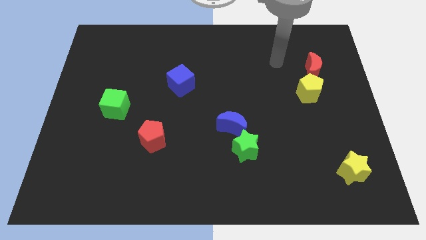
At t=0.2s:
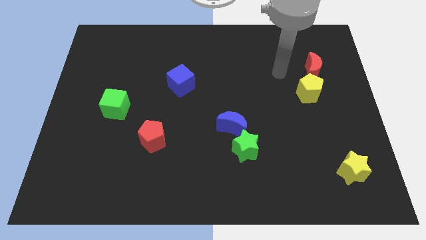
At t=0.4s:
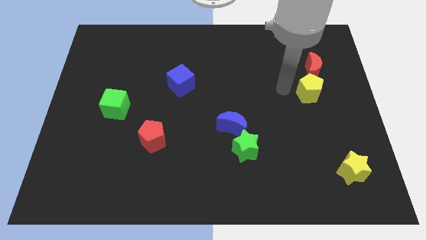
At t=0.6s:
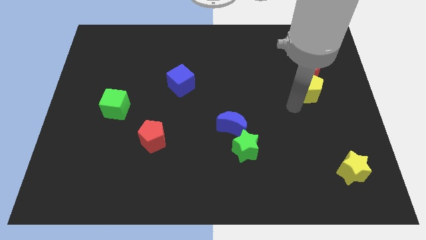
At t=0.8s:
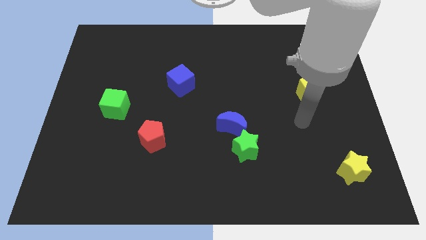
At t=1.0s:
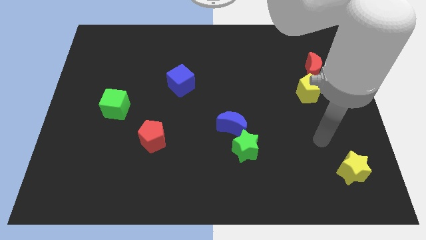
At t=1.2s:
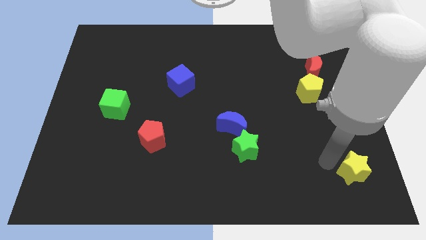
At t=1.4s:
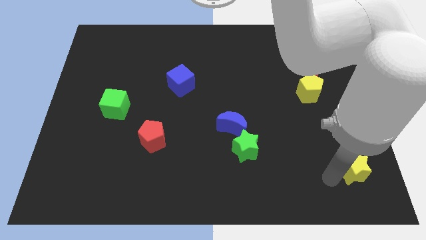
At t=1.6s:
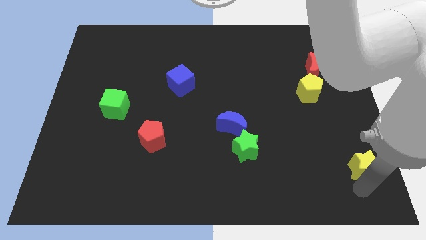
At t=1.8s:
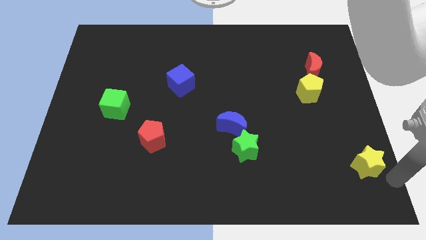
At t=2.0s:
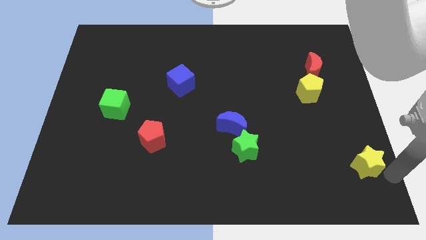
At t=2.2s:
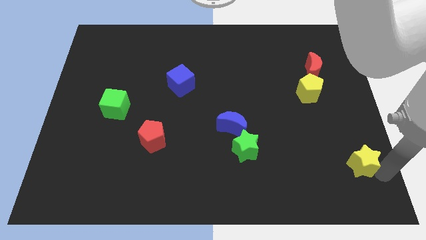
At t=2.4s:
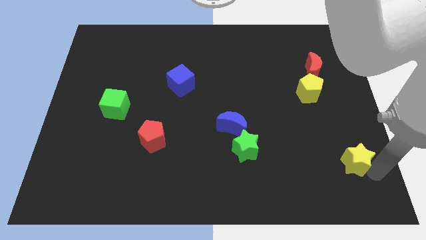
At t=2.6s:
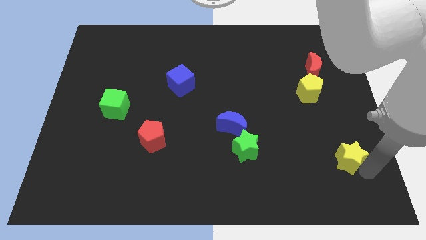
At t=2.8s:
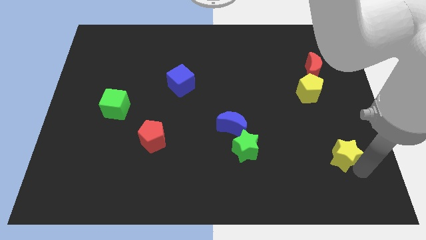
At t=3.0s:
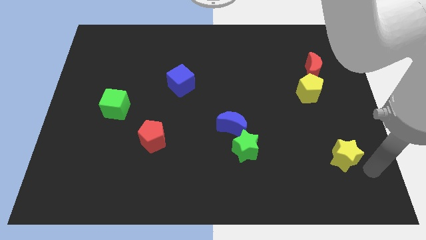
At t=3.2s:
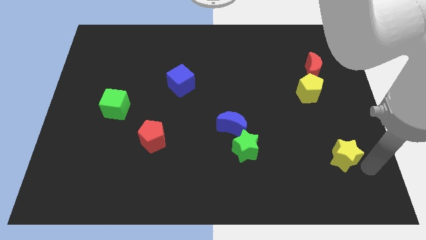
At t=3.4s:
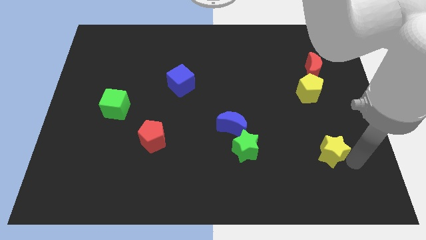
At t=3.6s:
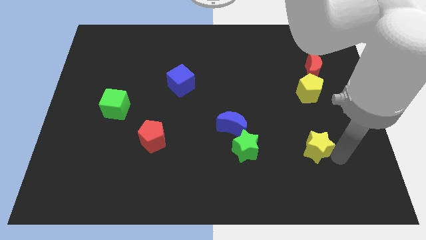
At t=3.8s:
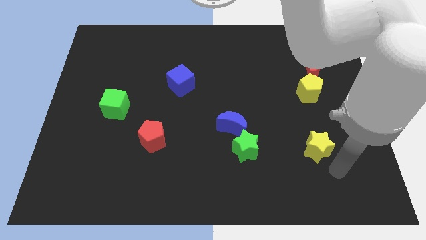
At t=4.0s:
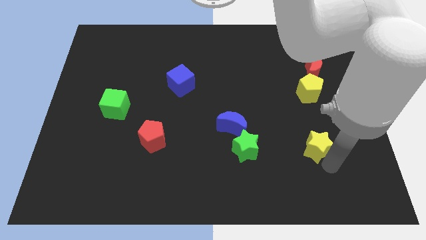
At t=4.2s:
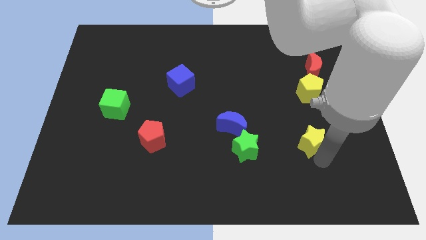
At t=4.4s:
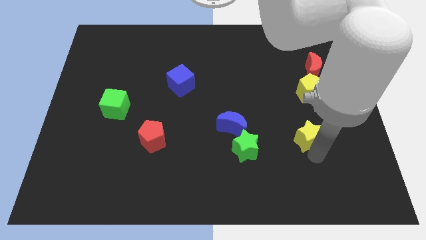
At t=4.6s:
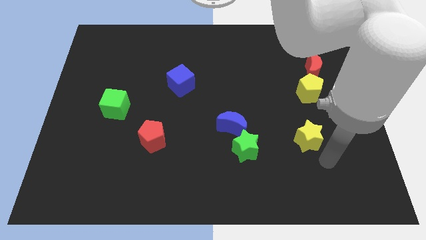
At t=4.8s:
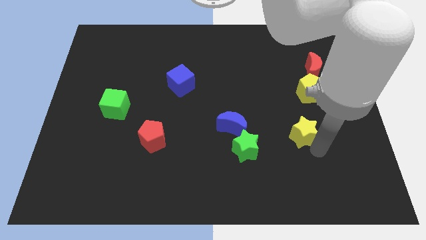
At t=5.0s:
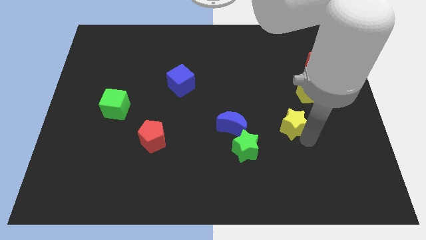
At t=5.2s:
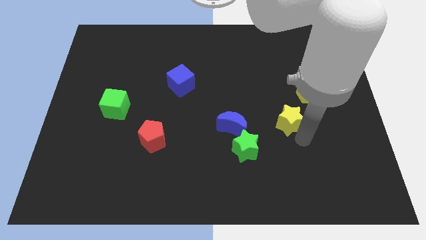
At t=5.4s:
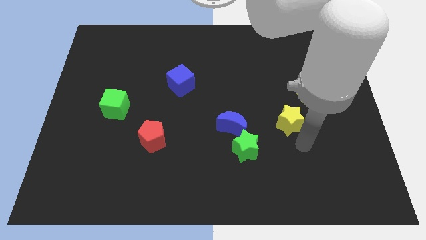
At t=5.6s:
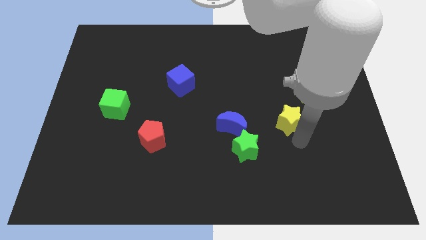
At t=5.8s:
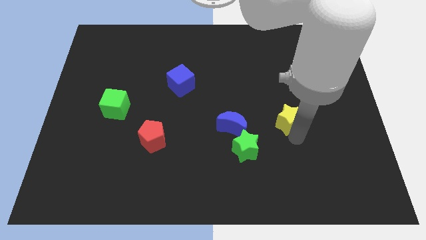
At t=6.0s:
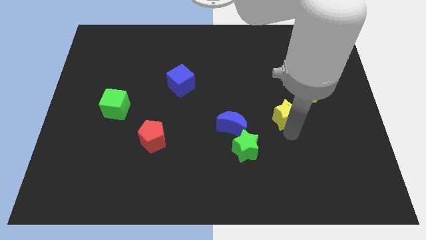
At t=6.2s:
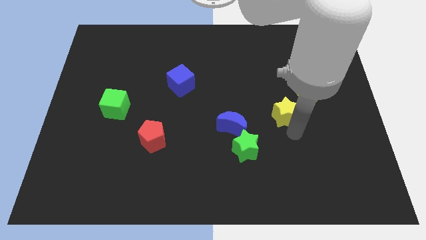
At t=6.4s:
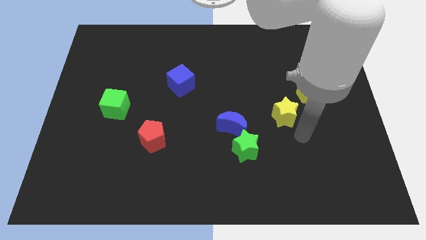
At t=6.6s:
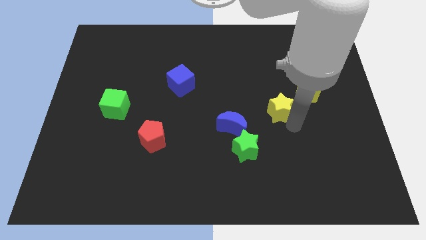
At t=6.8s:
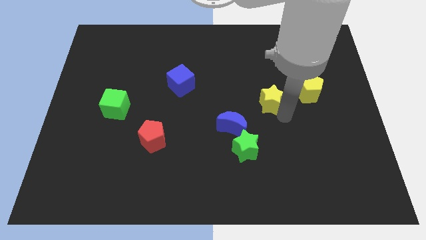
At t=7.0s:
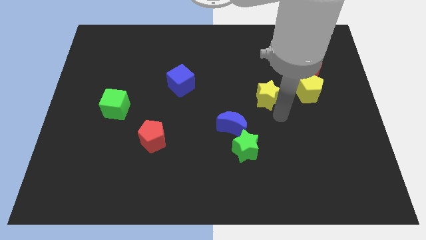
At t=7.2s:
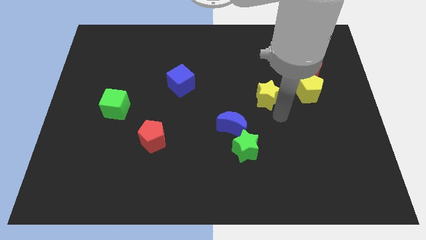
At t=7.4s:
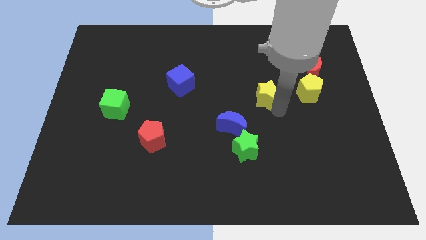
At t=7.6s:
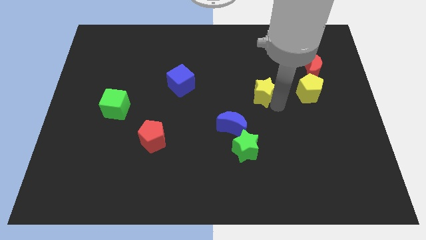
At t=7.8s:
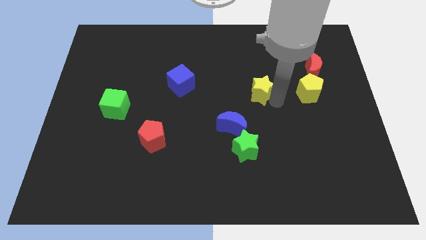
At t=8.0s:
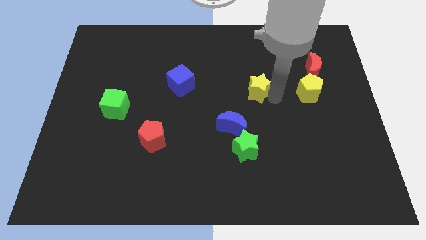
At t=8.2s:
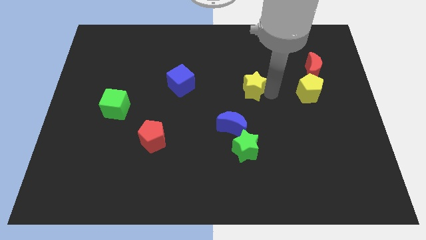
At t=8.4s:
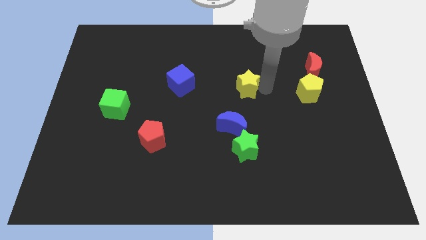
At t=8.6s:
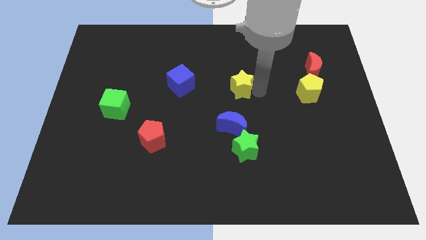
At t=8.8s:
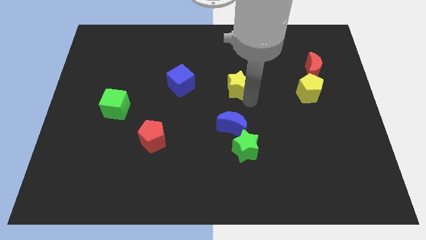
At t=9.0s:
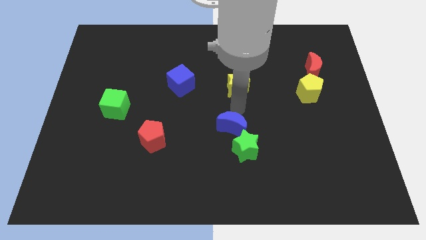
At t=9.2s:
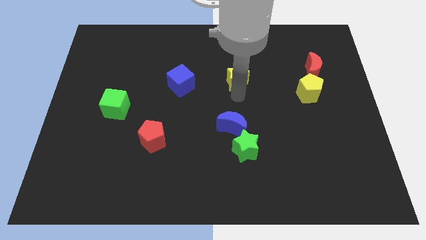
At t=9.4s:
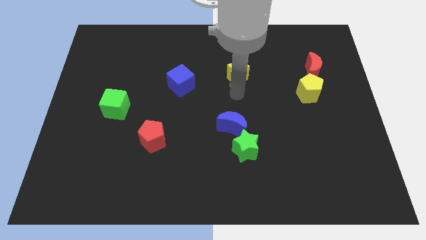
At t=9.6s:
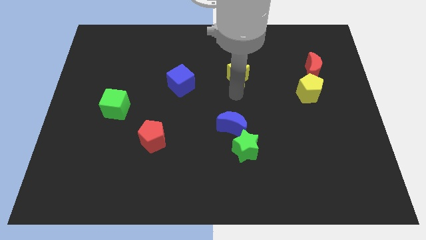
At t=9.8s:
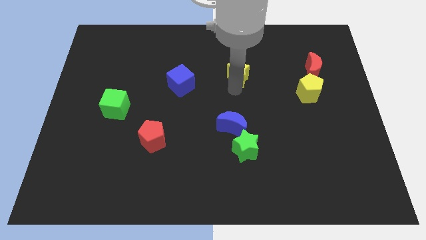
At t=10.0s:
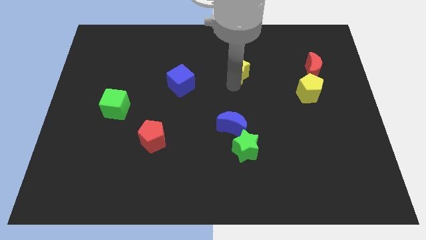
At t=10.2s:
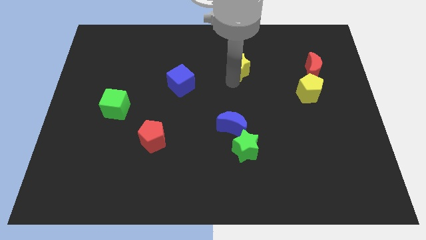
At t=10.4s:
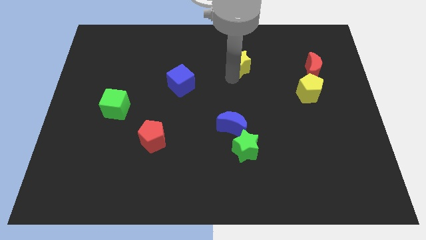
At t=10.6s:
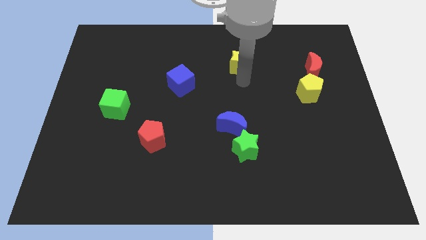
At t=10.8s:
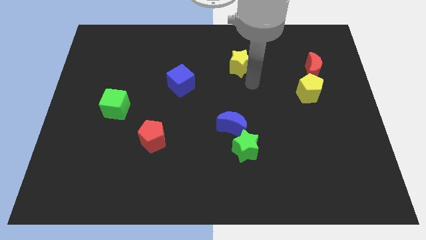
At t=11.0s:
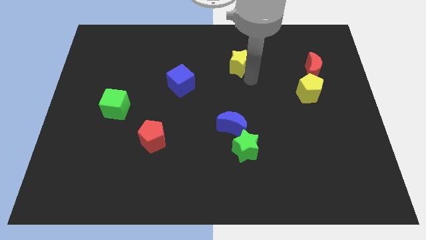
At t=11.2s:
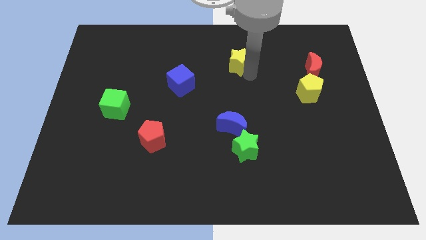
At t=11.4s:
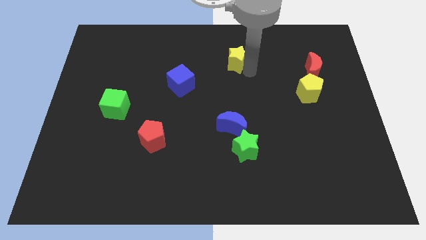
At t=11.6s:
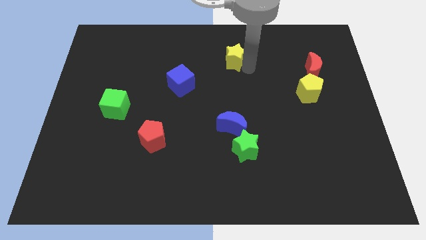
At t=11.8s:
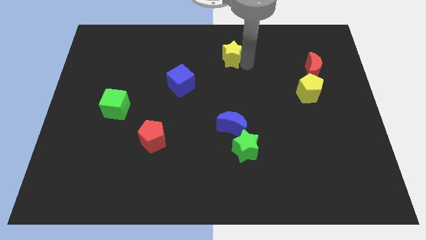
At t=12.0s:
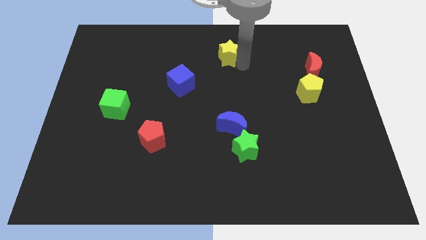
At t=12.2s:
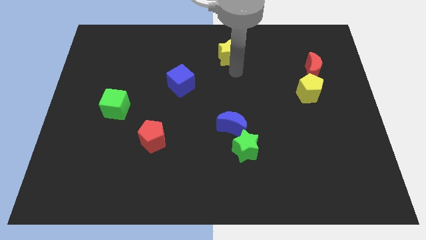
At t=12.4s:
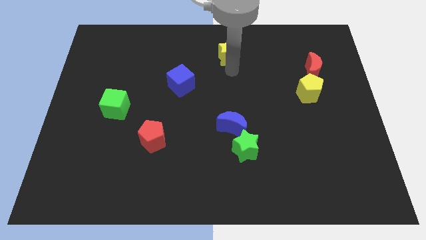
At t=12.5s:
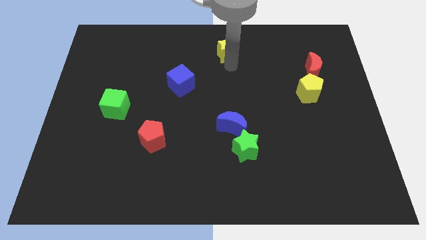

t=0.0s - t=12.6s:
move the yellow star to the top

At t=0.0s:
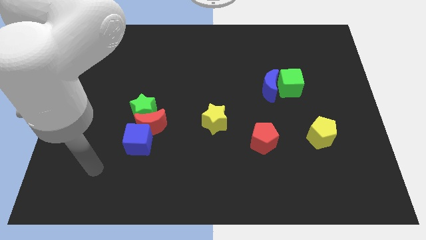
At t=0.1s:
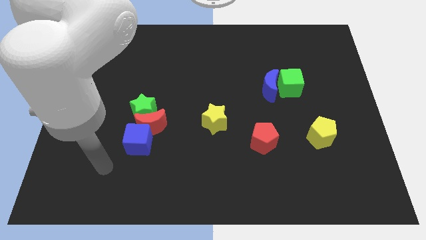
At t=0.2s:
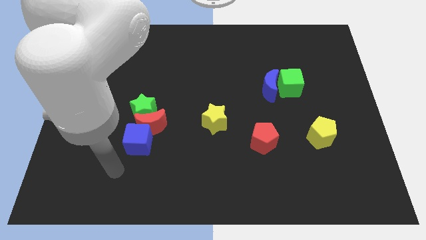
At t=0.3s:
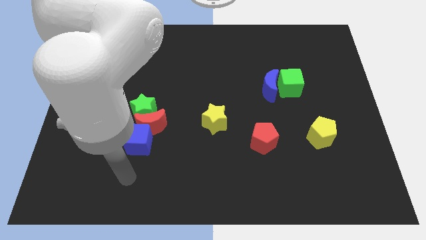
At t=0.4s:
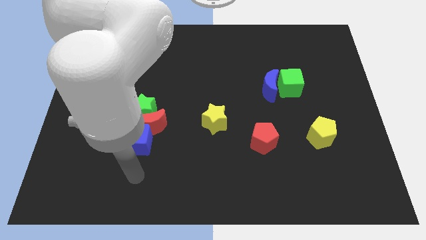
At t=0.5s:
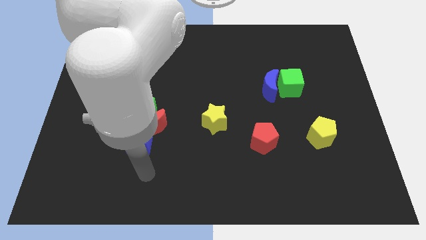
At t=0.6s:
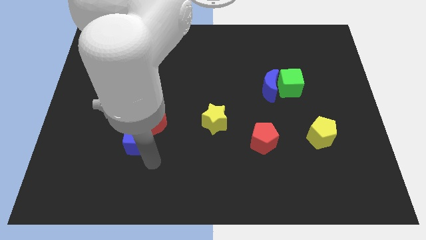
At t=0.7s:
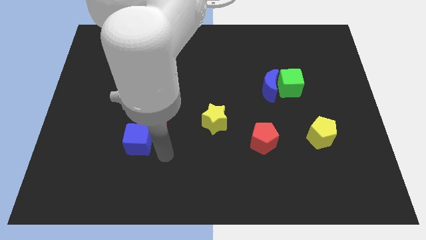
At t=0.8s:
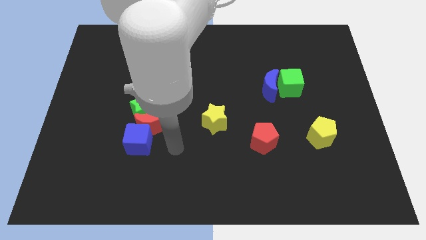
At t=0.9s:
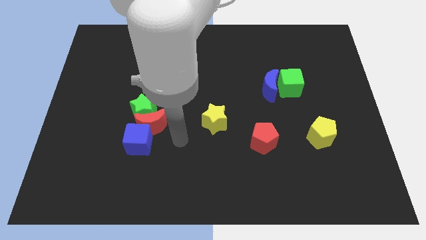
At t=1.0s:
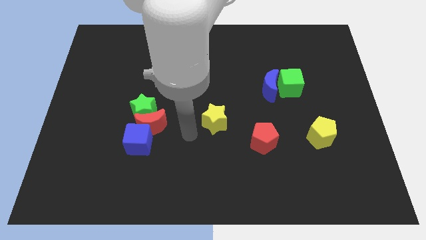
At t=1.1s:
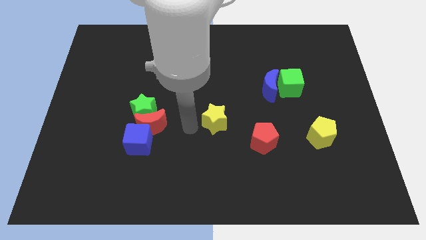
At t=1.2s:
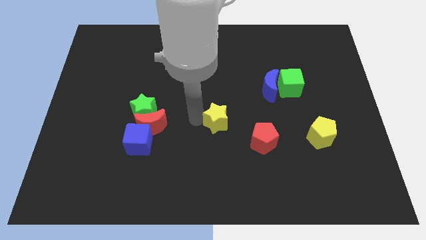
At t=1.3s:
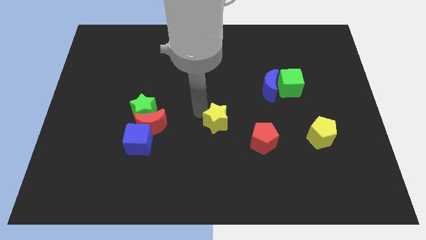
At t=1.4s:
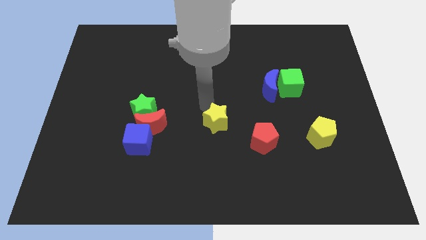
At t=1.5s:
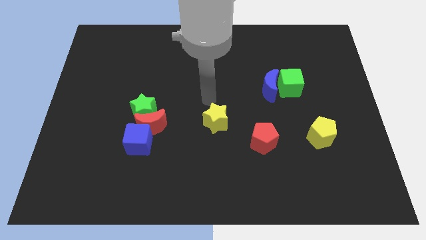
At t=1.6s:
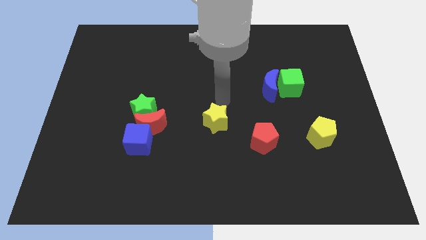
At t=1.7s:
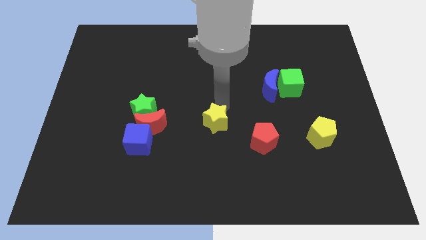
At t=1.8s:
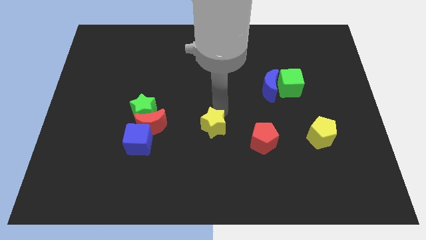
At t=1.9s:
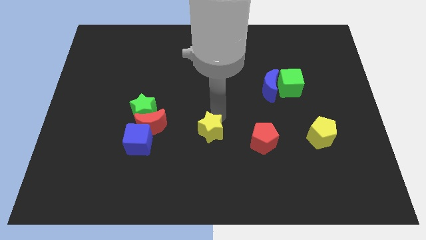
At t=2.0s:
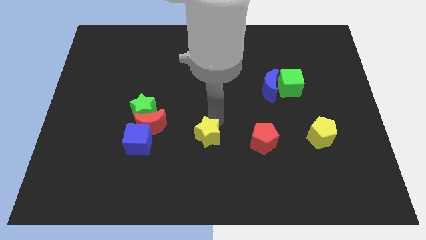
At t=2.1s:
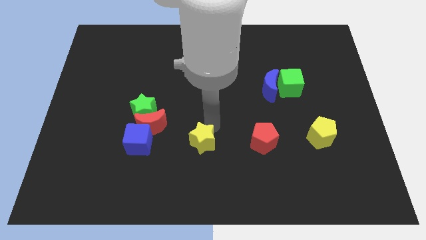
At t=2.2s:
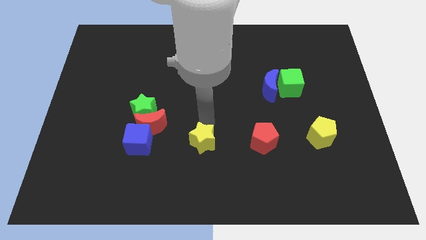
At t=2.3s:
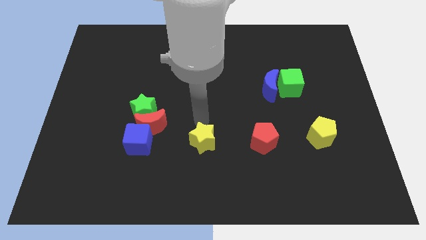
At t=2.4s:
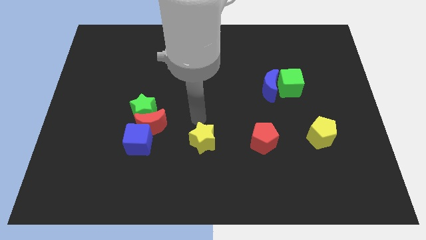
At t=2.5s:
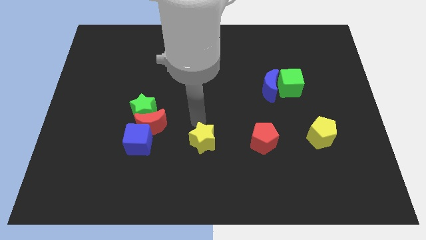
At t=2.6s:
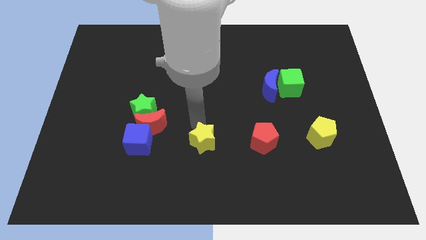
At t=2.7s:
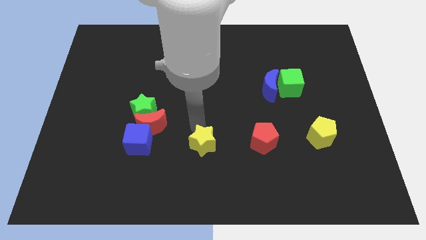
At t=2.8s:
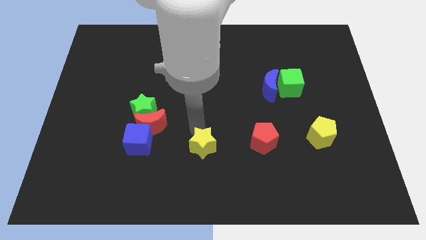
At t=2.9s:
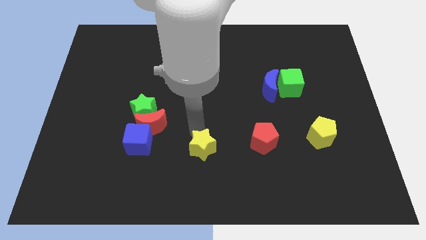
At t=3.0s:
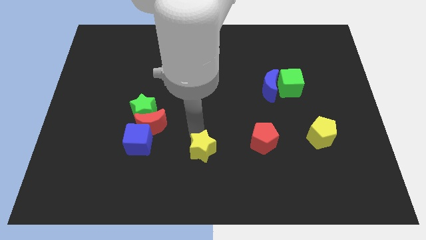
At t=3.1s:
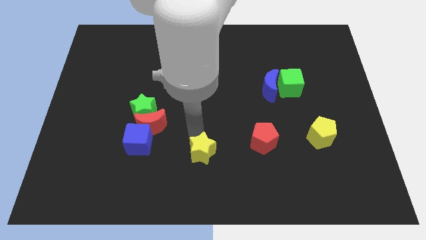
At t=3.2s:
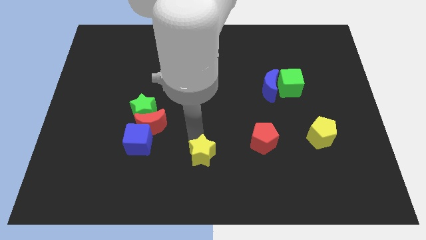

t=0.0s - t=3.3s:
slide the yellow star to the bottom side
